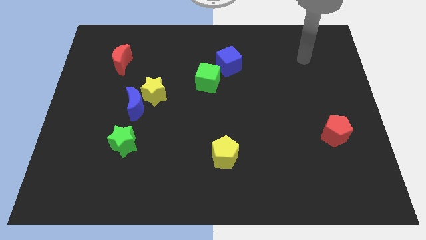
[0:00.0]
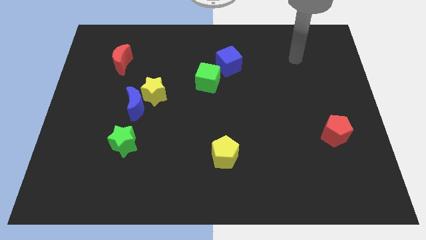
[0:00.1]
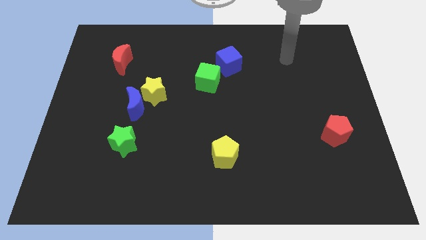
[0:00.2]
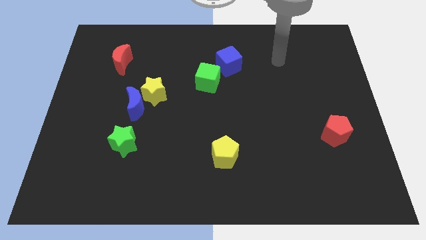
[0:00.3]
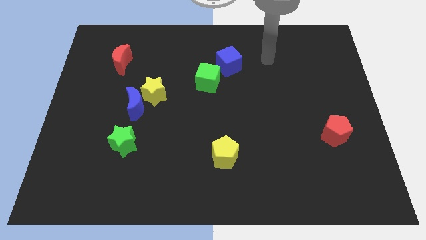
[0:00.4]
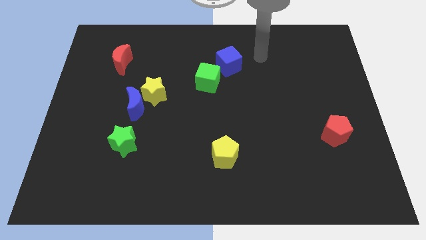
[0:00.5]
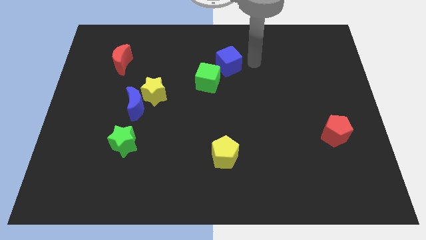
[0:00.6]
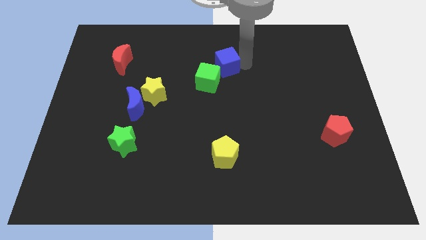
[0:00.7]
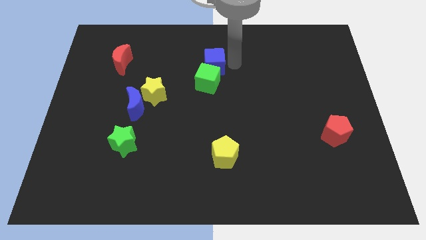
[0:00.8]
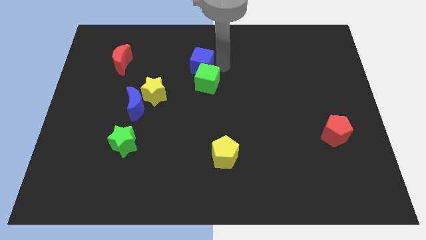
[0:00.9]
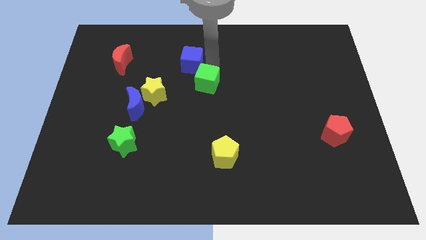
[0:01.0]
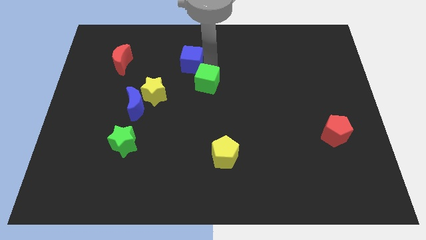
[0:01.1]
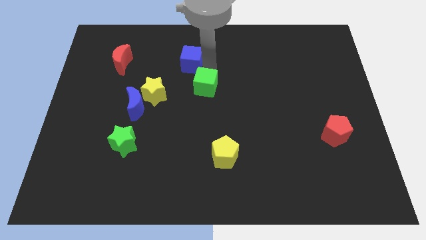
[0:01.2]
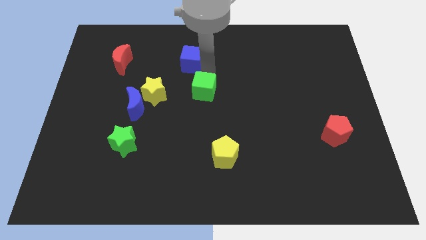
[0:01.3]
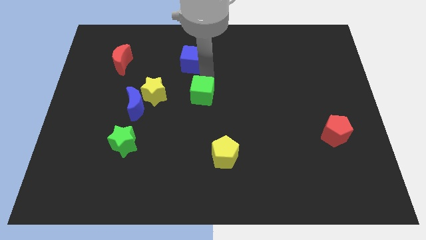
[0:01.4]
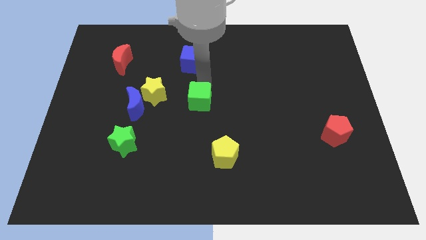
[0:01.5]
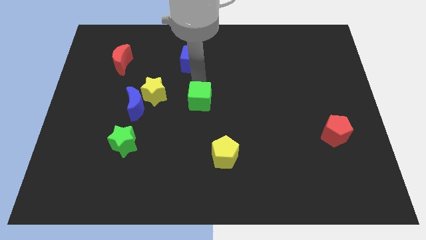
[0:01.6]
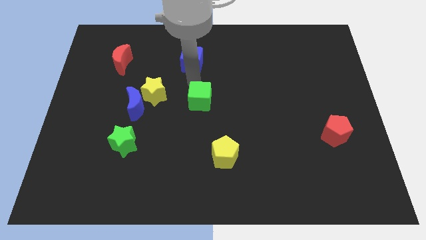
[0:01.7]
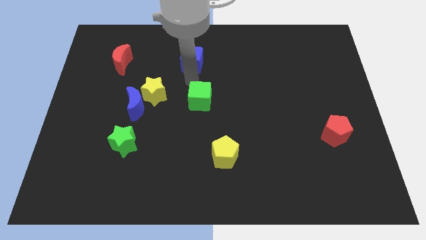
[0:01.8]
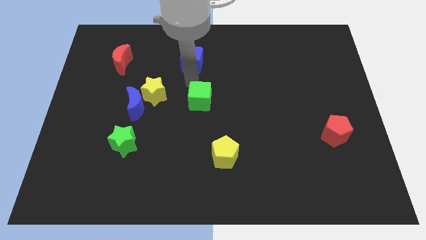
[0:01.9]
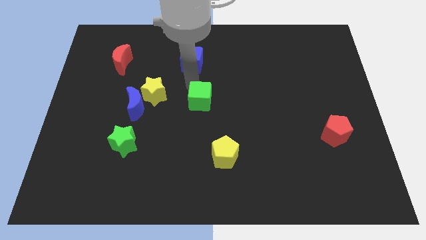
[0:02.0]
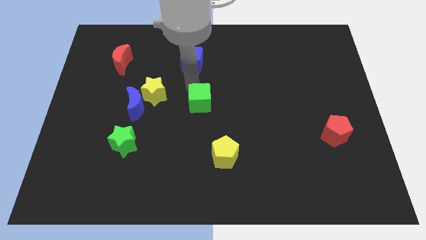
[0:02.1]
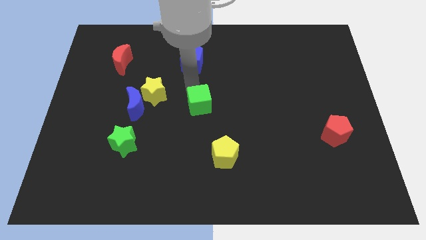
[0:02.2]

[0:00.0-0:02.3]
slightly move the green cube down

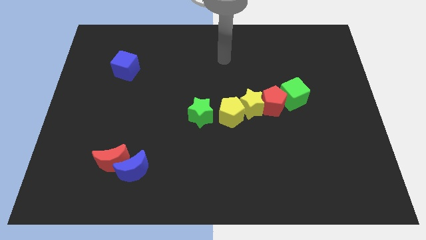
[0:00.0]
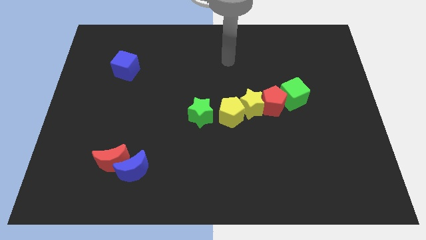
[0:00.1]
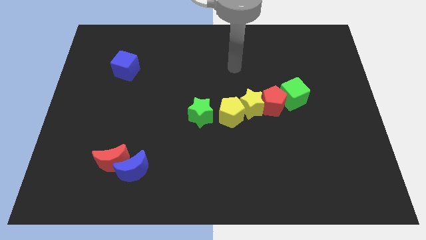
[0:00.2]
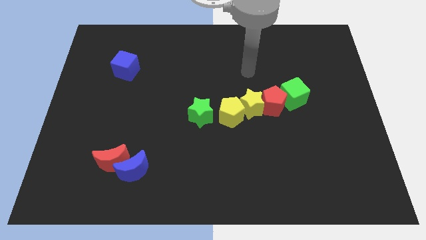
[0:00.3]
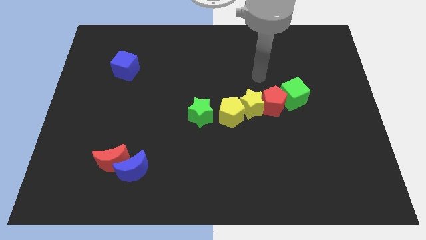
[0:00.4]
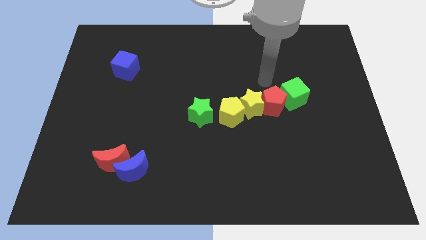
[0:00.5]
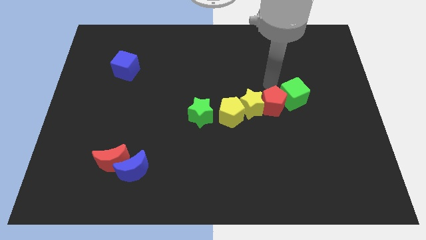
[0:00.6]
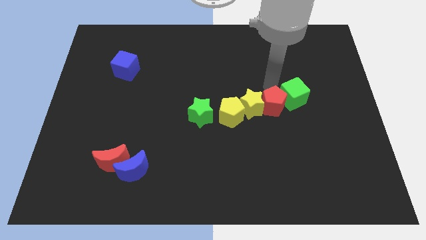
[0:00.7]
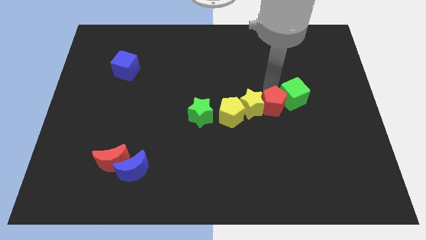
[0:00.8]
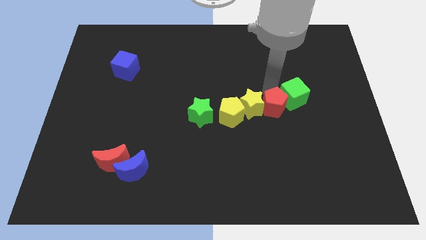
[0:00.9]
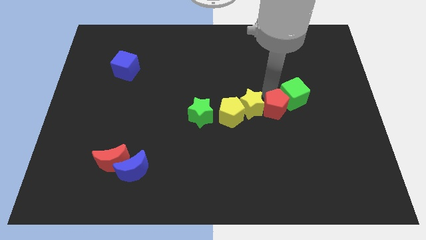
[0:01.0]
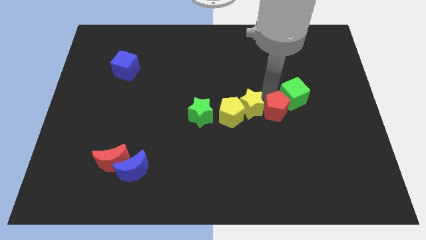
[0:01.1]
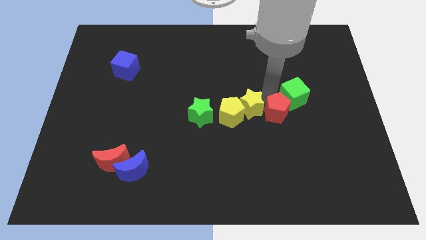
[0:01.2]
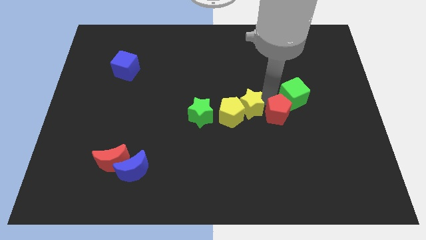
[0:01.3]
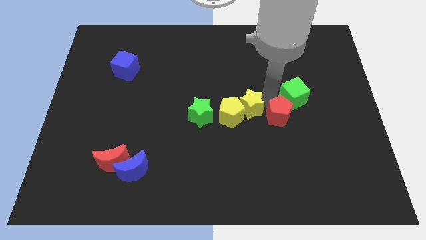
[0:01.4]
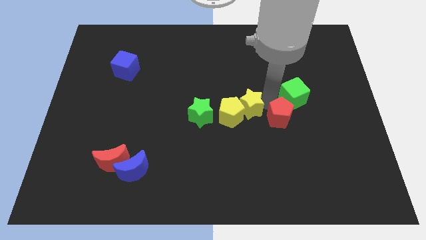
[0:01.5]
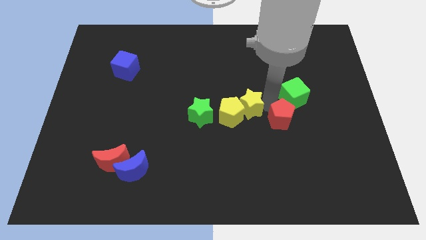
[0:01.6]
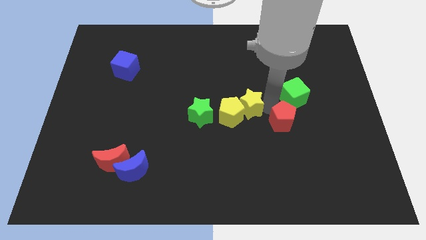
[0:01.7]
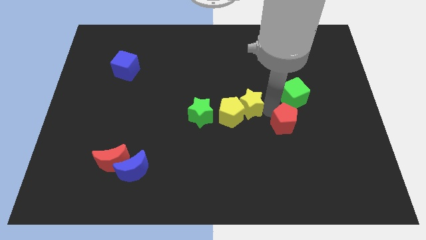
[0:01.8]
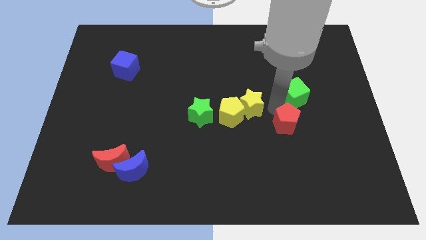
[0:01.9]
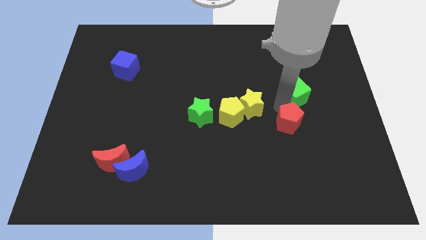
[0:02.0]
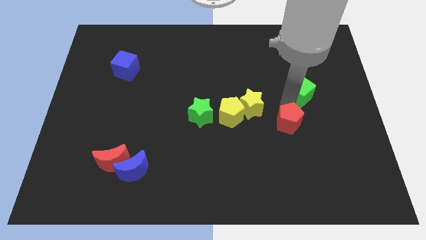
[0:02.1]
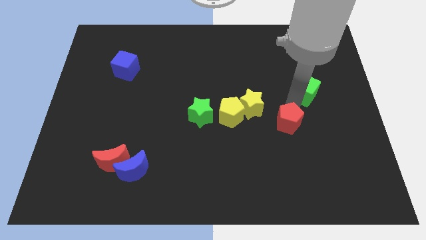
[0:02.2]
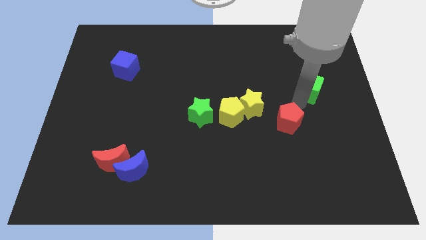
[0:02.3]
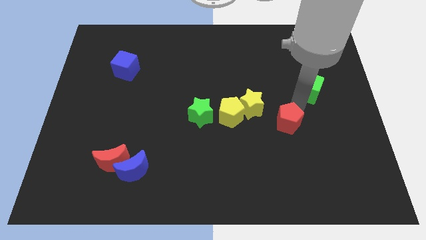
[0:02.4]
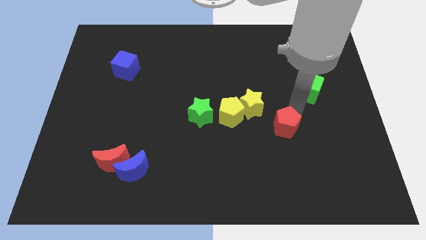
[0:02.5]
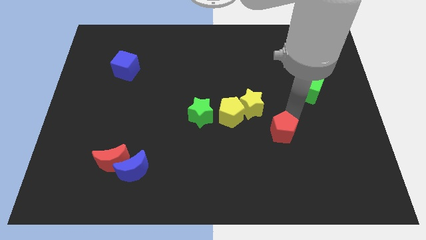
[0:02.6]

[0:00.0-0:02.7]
push the red pentagon slightly down

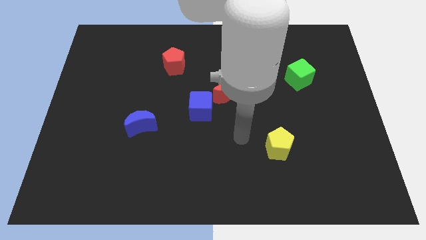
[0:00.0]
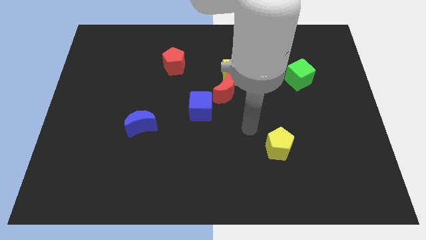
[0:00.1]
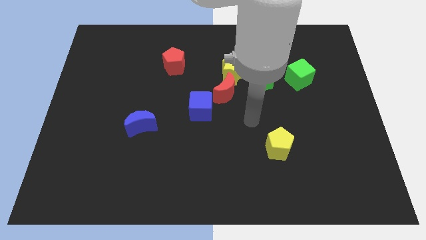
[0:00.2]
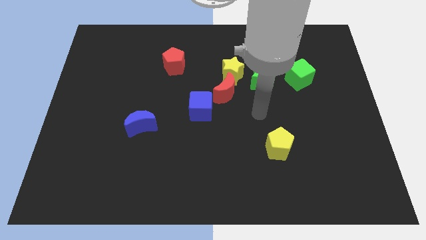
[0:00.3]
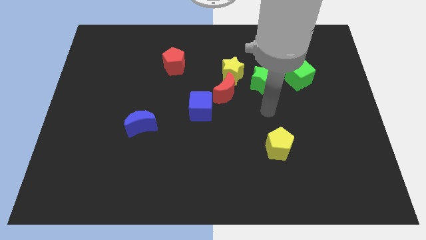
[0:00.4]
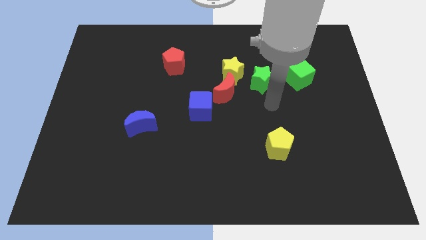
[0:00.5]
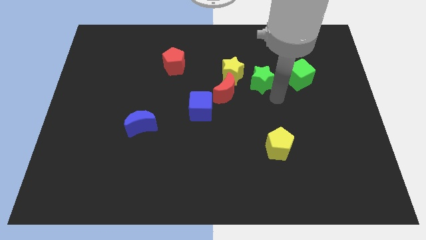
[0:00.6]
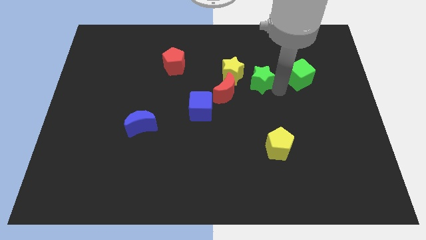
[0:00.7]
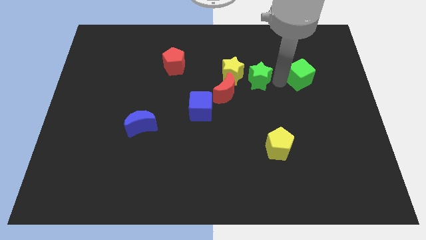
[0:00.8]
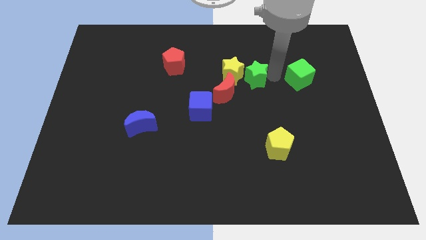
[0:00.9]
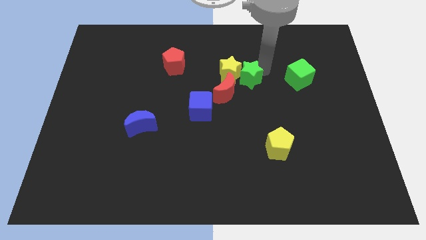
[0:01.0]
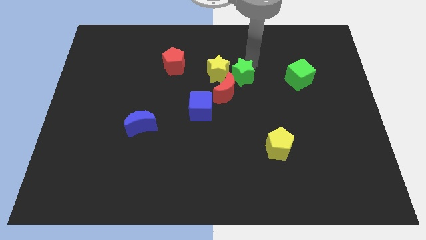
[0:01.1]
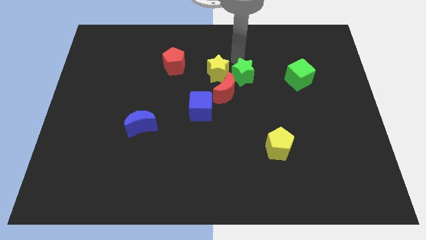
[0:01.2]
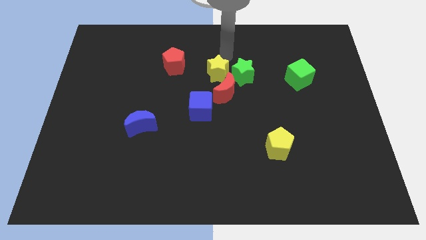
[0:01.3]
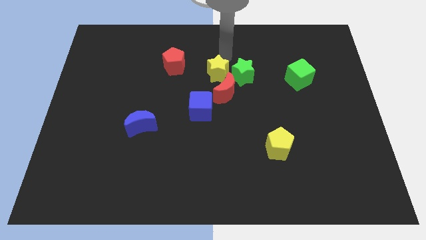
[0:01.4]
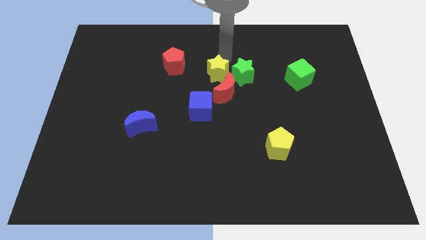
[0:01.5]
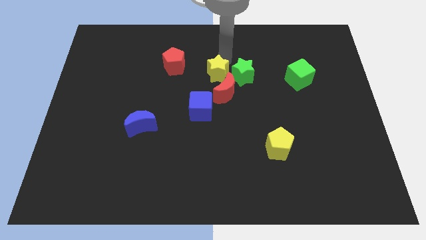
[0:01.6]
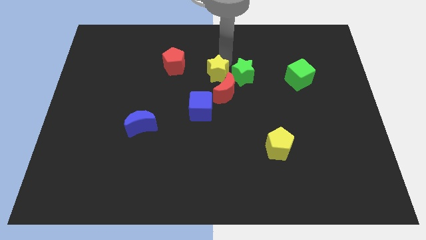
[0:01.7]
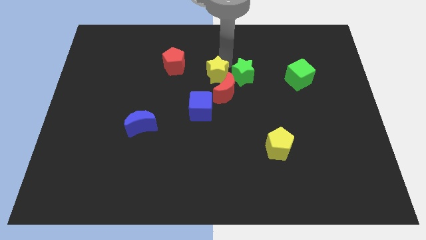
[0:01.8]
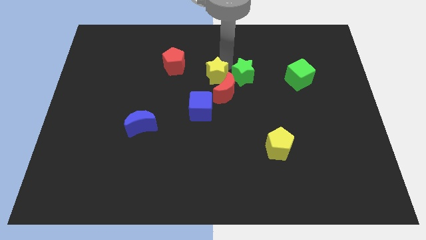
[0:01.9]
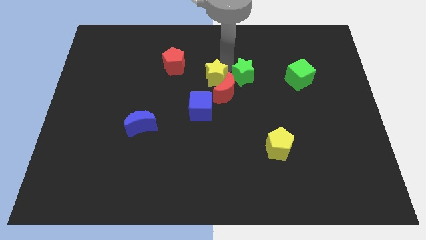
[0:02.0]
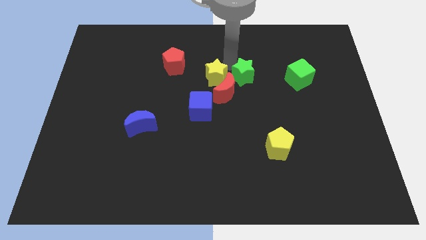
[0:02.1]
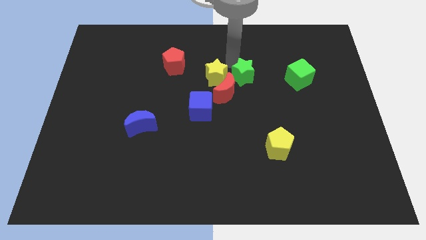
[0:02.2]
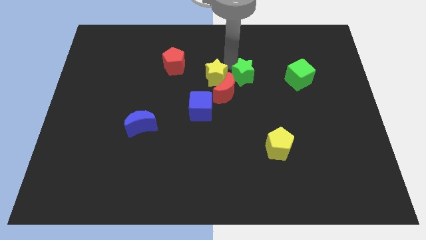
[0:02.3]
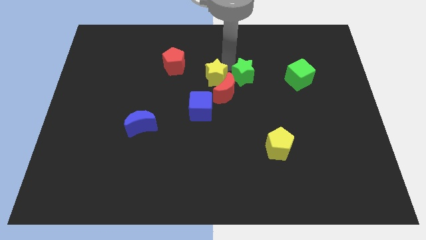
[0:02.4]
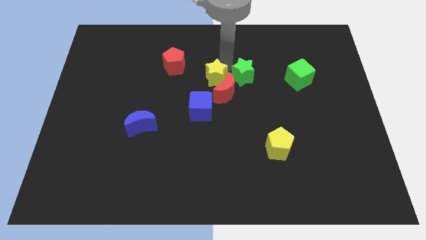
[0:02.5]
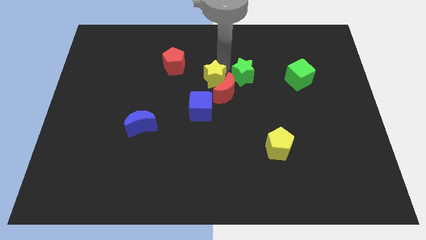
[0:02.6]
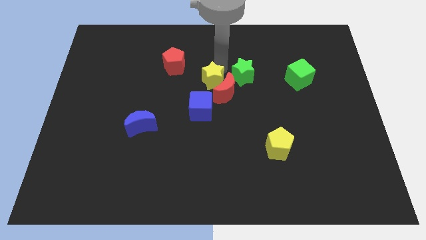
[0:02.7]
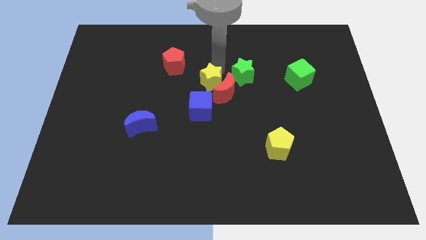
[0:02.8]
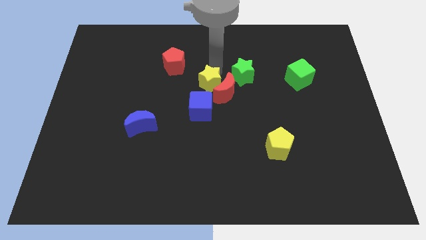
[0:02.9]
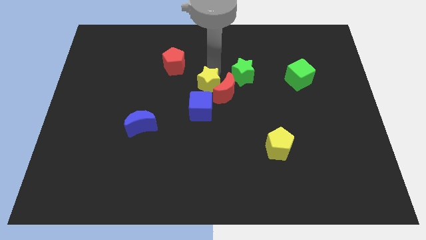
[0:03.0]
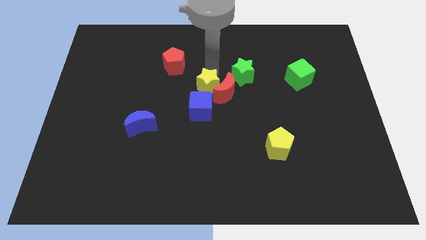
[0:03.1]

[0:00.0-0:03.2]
move the yellow star down and then to the left a little
